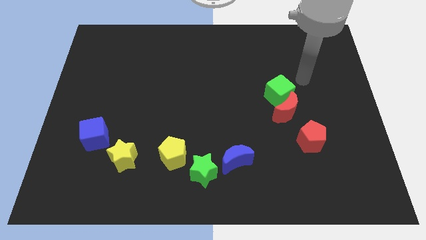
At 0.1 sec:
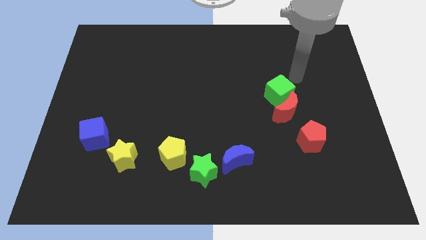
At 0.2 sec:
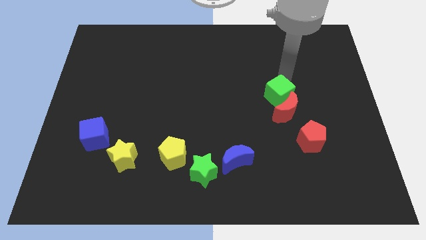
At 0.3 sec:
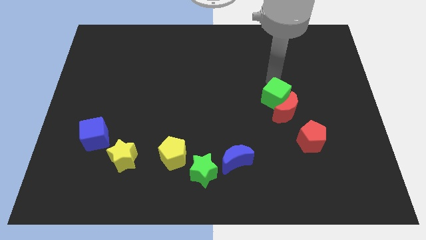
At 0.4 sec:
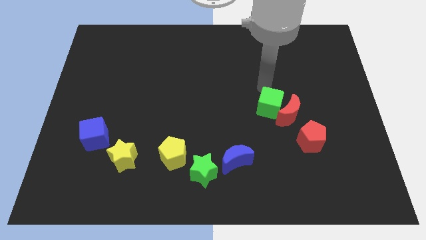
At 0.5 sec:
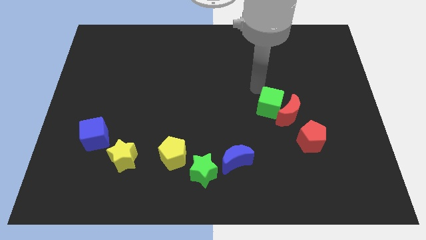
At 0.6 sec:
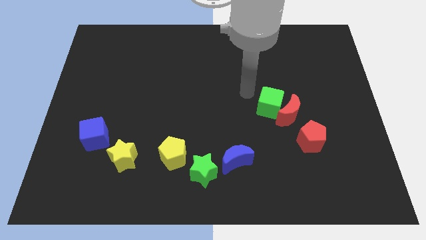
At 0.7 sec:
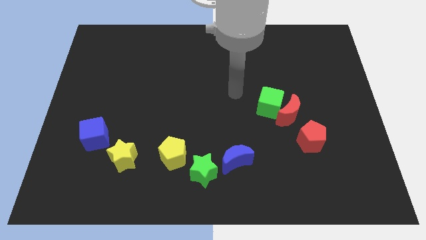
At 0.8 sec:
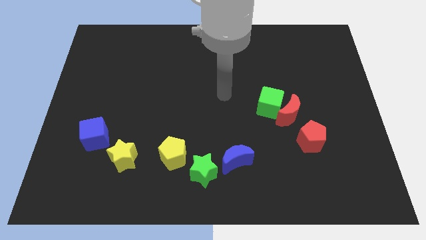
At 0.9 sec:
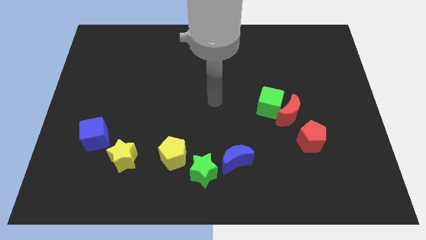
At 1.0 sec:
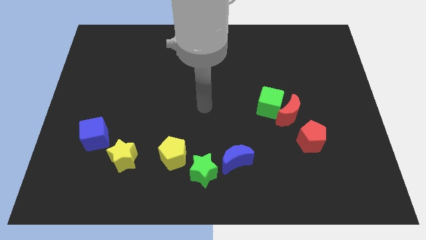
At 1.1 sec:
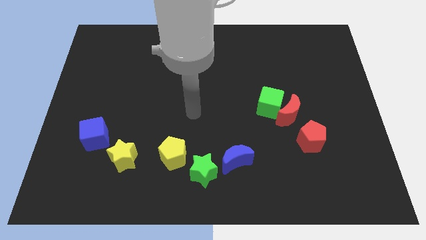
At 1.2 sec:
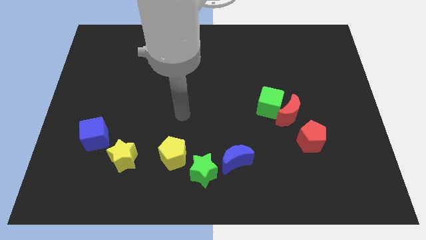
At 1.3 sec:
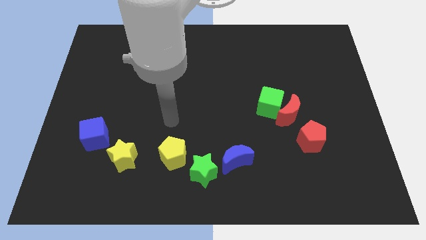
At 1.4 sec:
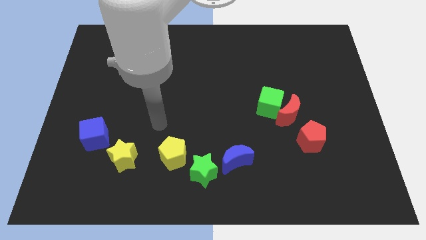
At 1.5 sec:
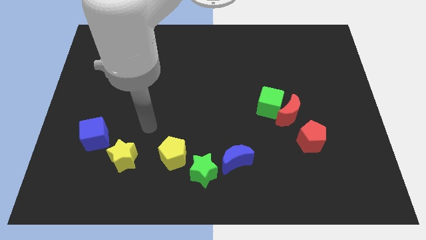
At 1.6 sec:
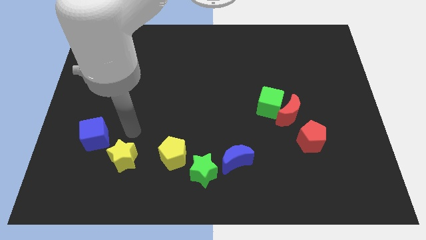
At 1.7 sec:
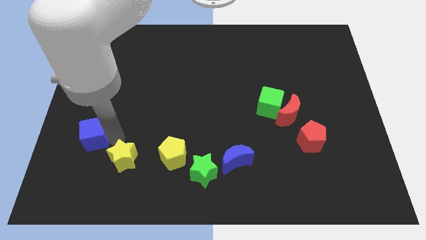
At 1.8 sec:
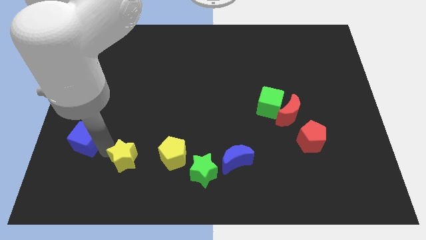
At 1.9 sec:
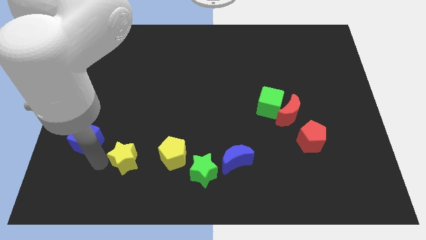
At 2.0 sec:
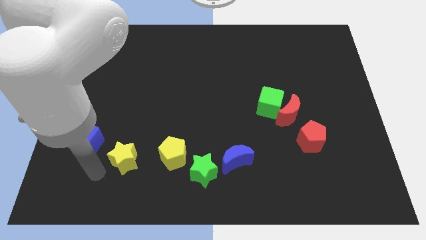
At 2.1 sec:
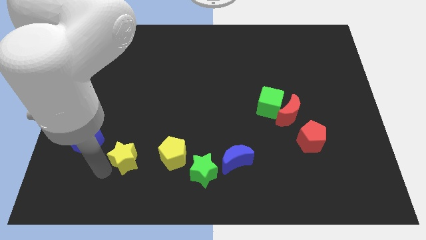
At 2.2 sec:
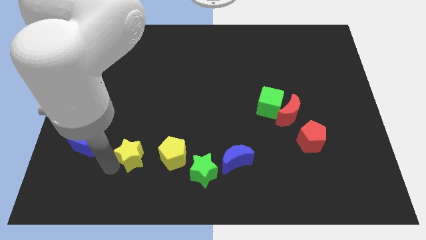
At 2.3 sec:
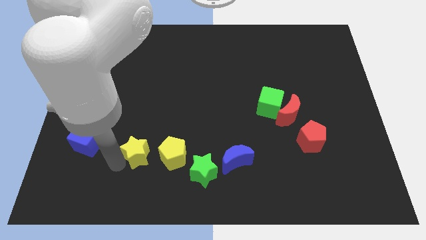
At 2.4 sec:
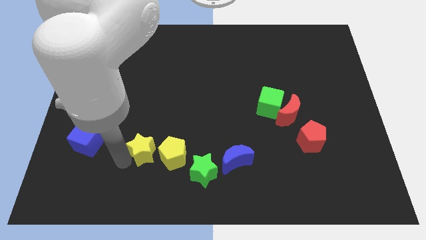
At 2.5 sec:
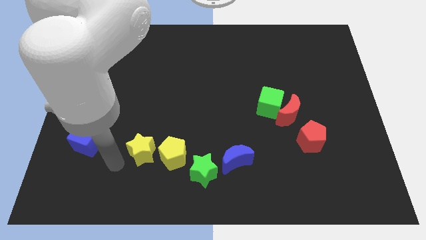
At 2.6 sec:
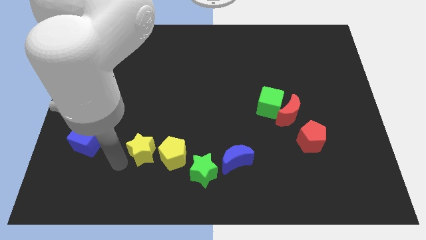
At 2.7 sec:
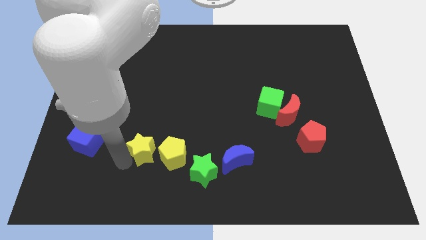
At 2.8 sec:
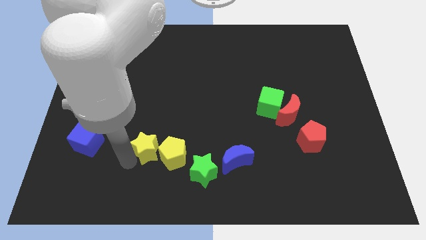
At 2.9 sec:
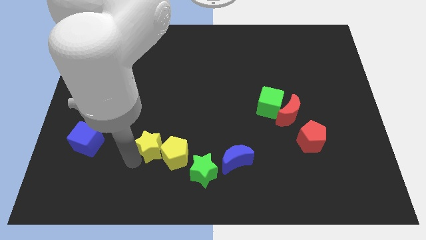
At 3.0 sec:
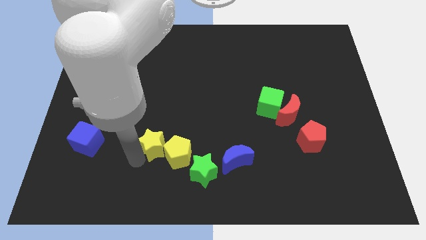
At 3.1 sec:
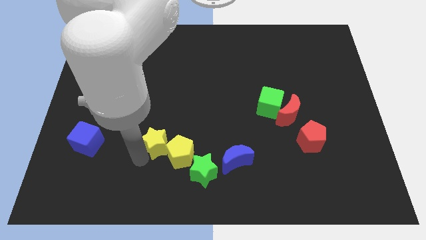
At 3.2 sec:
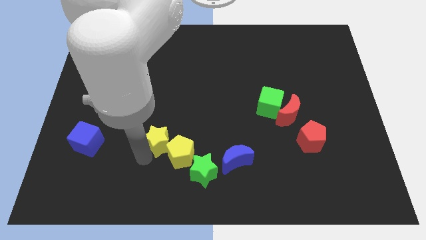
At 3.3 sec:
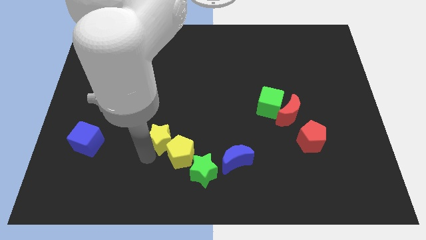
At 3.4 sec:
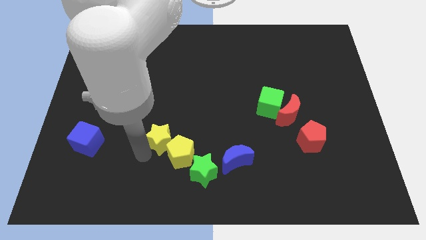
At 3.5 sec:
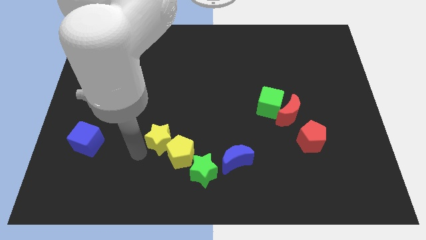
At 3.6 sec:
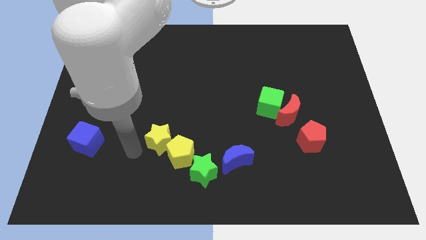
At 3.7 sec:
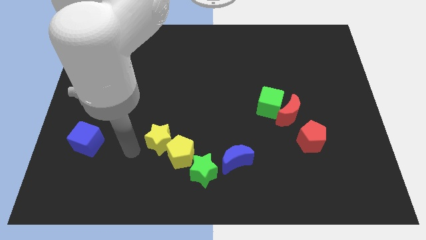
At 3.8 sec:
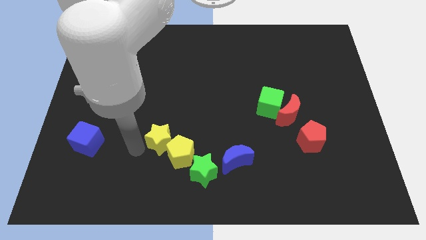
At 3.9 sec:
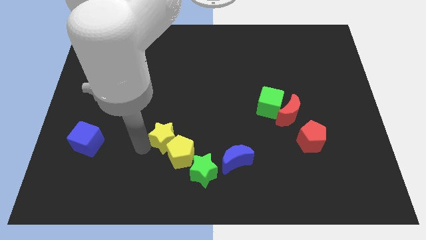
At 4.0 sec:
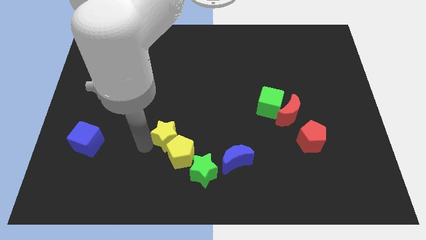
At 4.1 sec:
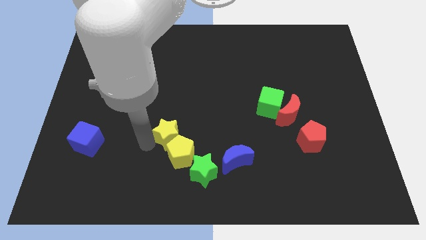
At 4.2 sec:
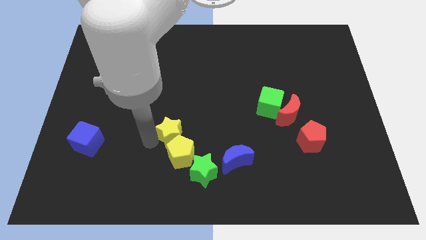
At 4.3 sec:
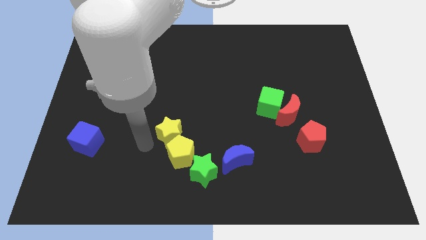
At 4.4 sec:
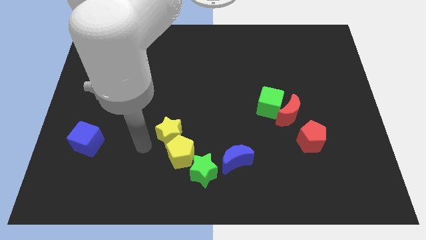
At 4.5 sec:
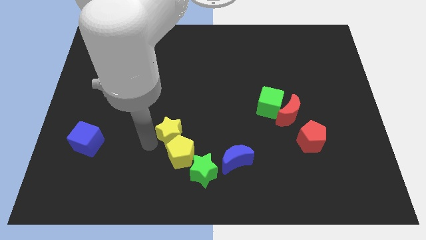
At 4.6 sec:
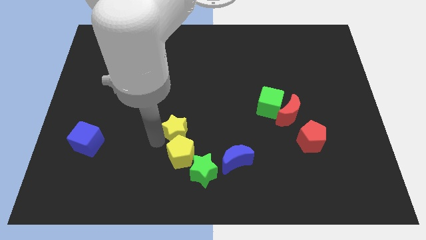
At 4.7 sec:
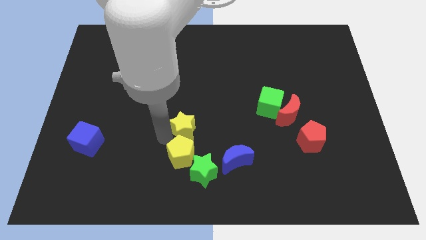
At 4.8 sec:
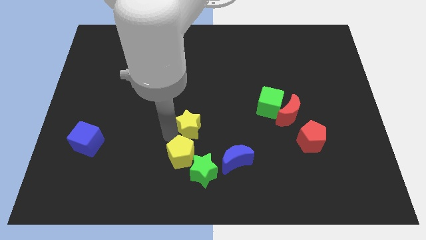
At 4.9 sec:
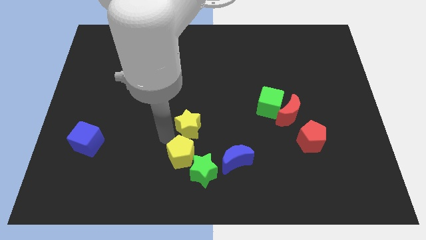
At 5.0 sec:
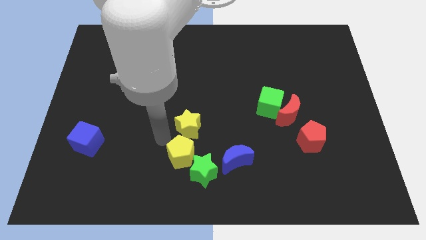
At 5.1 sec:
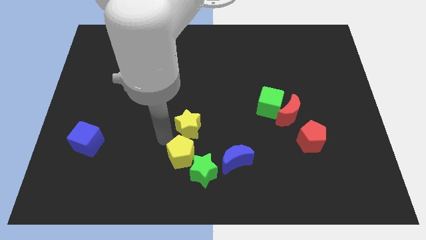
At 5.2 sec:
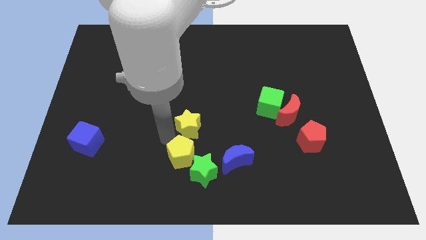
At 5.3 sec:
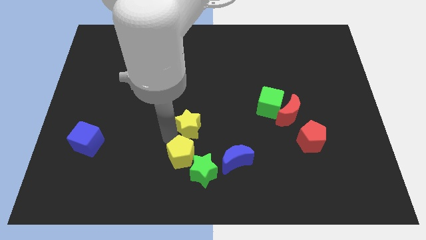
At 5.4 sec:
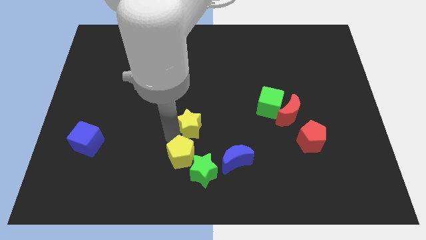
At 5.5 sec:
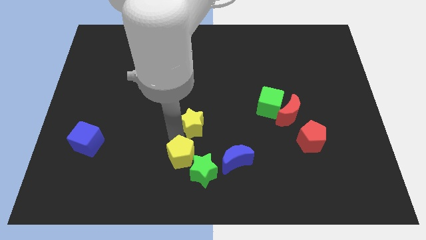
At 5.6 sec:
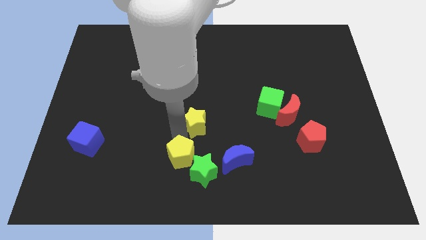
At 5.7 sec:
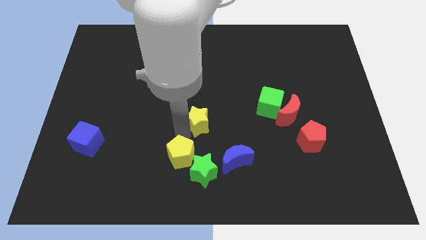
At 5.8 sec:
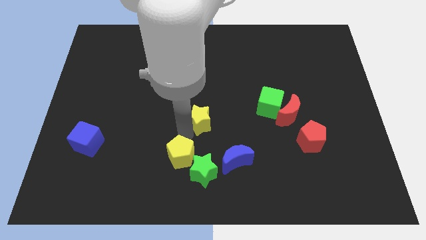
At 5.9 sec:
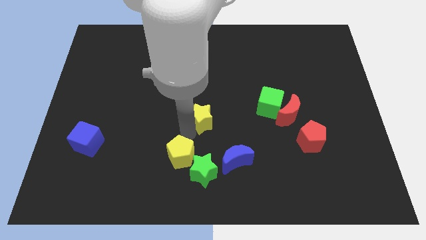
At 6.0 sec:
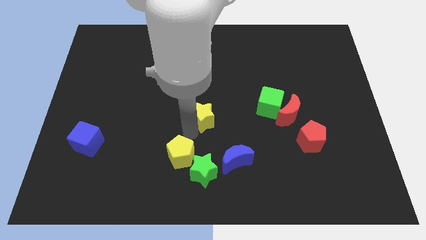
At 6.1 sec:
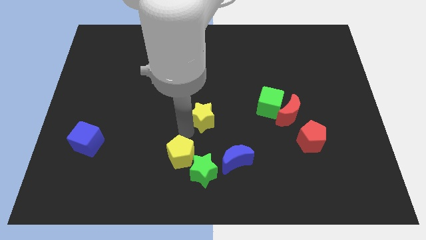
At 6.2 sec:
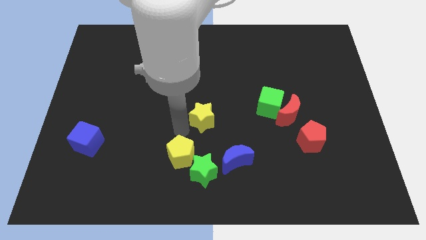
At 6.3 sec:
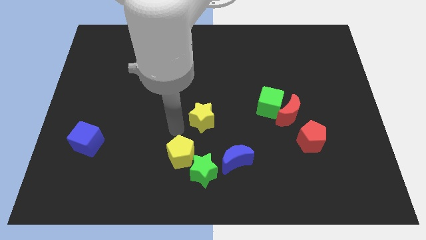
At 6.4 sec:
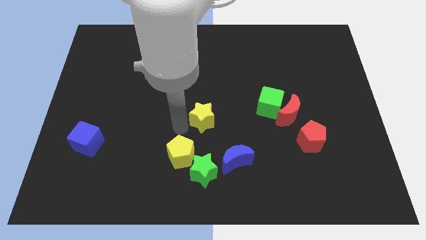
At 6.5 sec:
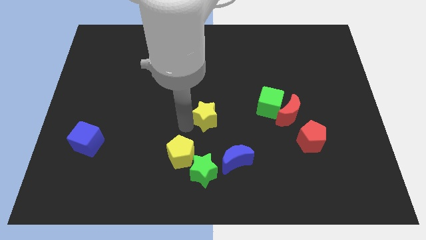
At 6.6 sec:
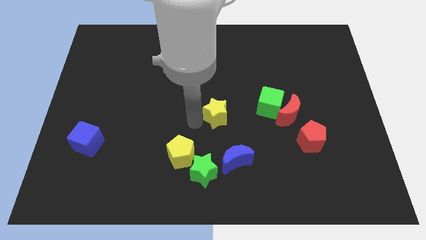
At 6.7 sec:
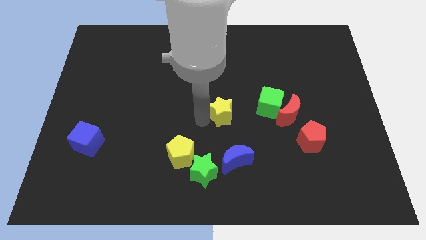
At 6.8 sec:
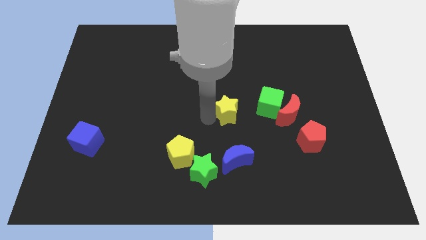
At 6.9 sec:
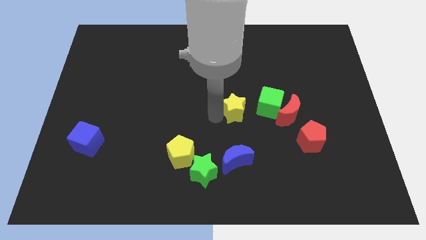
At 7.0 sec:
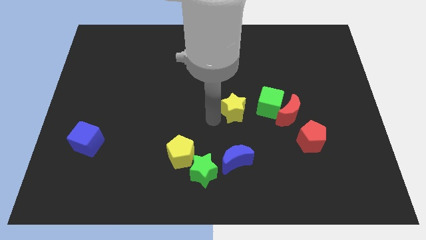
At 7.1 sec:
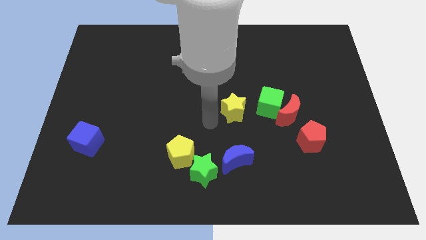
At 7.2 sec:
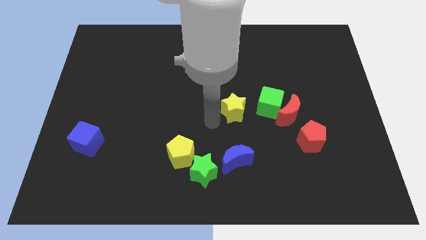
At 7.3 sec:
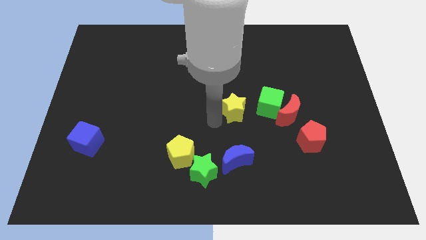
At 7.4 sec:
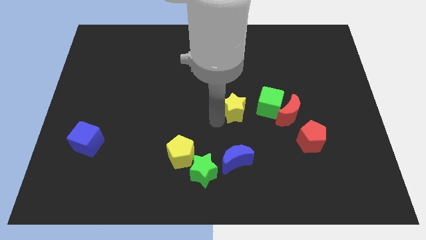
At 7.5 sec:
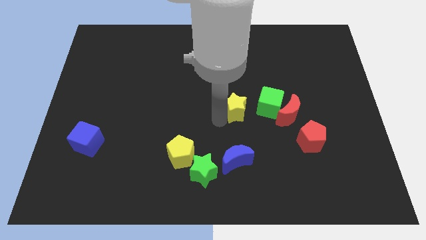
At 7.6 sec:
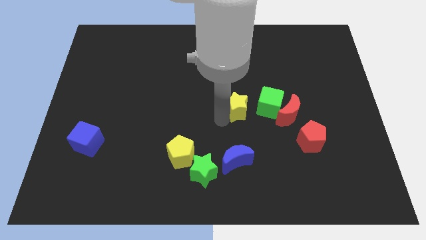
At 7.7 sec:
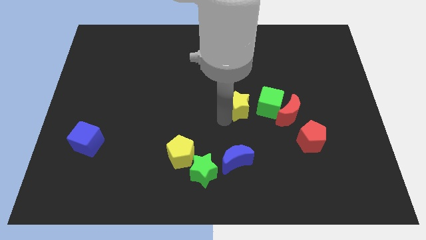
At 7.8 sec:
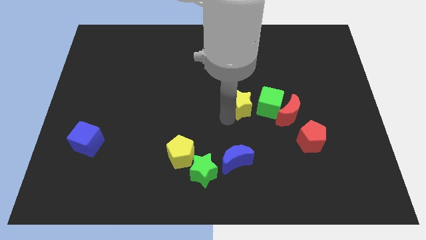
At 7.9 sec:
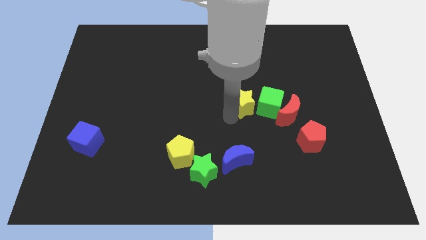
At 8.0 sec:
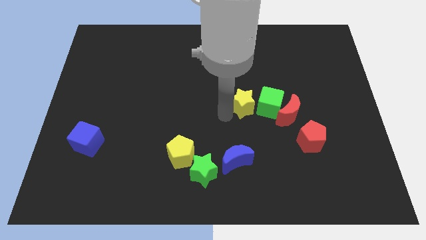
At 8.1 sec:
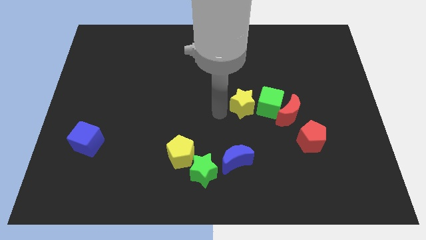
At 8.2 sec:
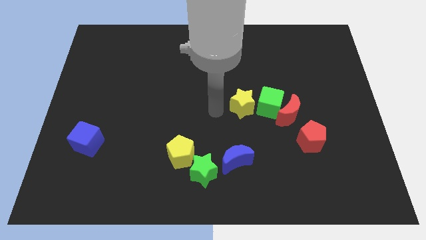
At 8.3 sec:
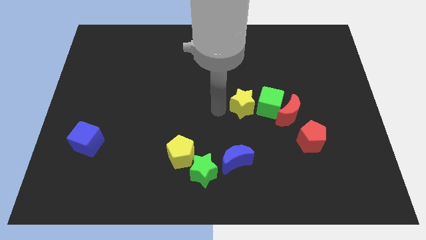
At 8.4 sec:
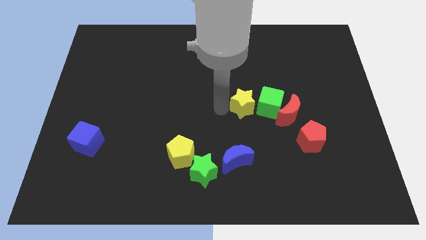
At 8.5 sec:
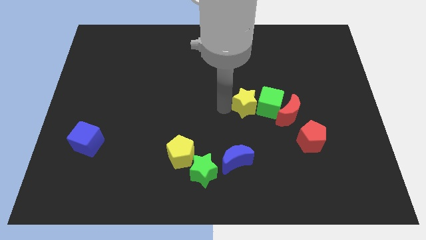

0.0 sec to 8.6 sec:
move the yellow star next to the green cube
